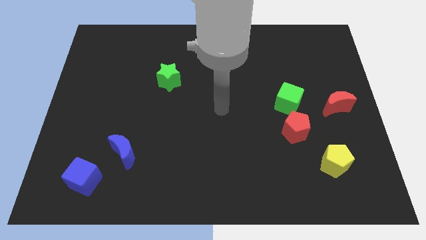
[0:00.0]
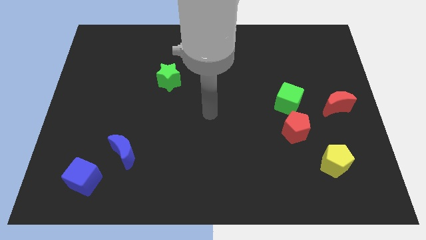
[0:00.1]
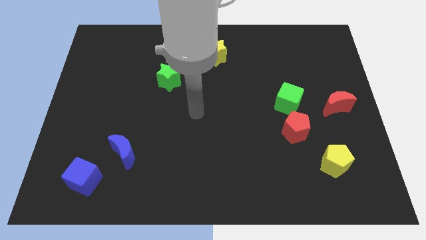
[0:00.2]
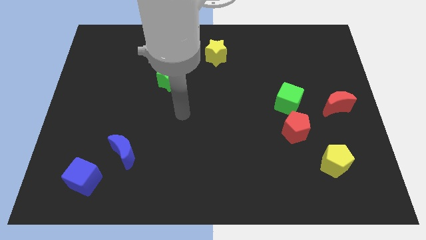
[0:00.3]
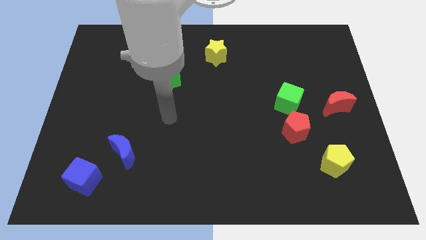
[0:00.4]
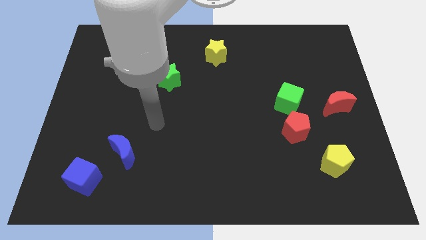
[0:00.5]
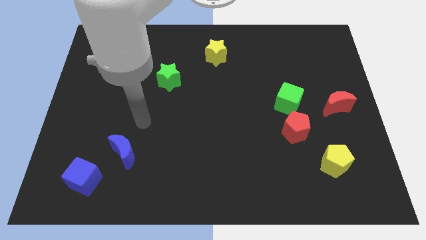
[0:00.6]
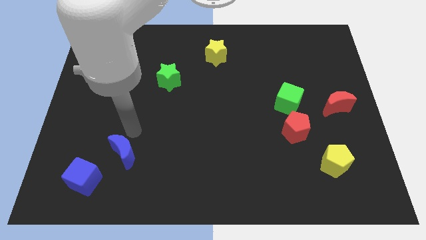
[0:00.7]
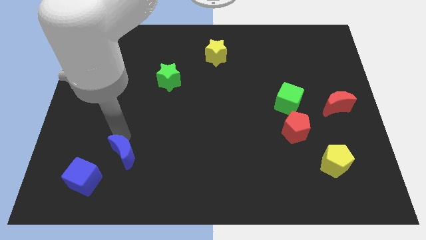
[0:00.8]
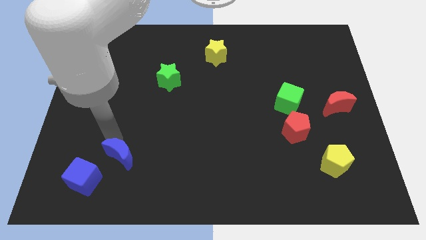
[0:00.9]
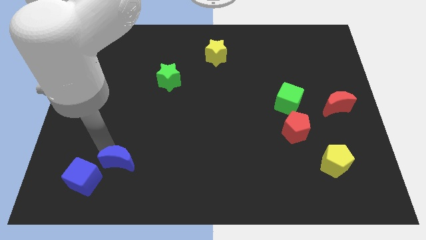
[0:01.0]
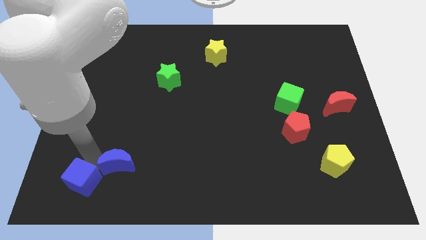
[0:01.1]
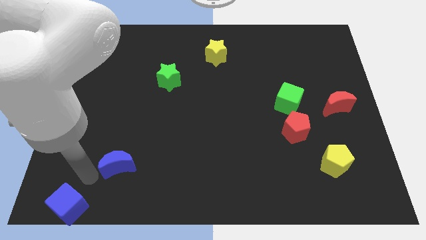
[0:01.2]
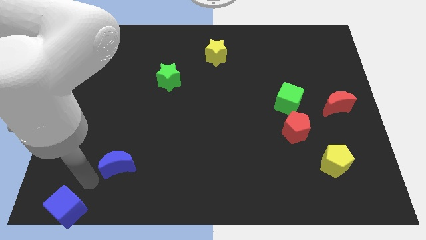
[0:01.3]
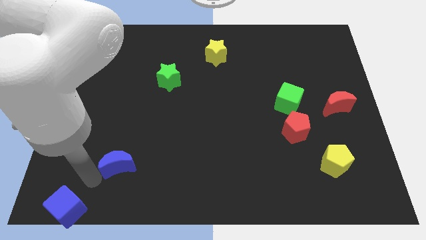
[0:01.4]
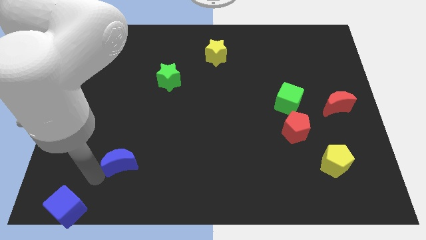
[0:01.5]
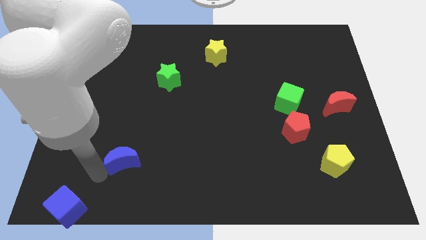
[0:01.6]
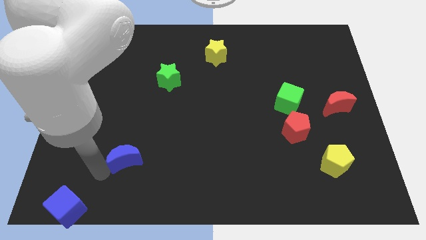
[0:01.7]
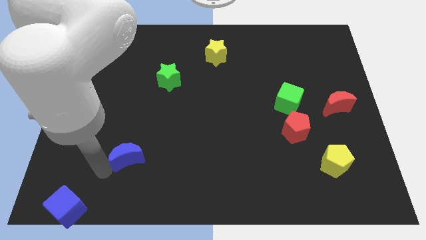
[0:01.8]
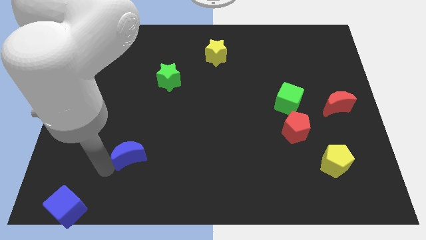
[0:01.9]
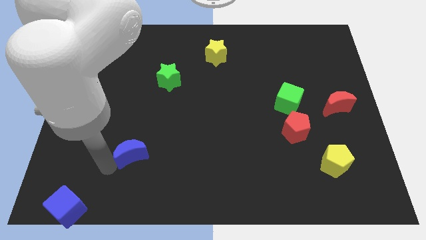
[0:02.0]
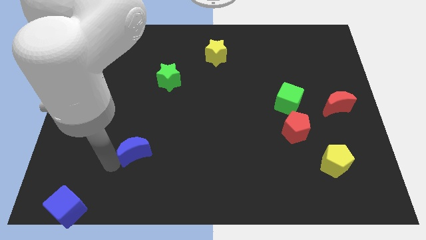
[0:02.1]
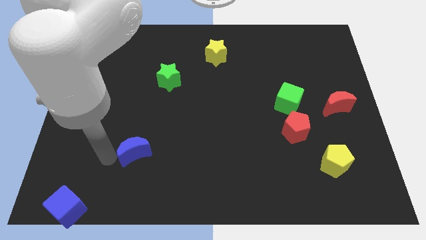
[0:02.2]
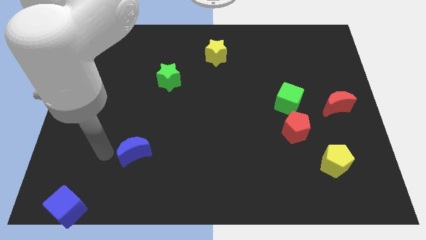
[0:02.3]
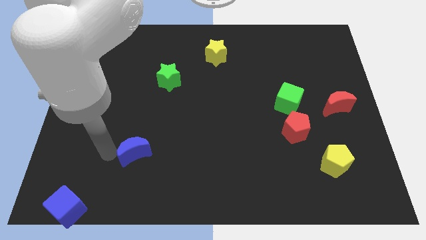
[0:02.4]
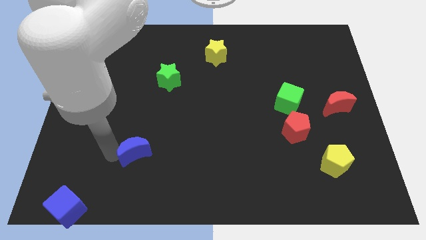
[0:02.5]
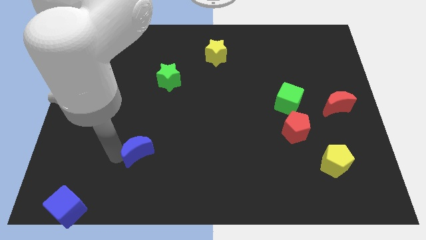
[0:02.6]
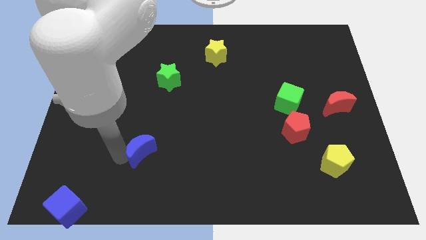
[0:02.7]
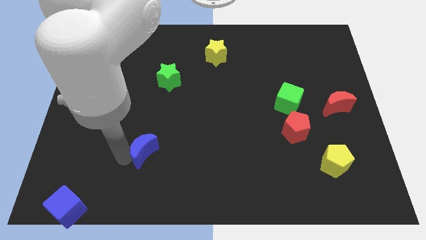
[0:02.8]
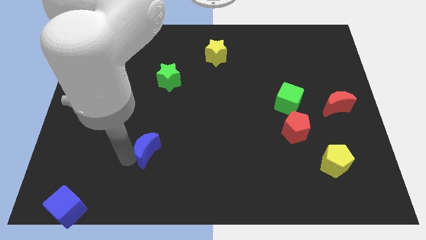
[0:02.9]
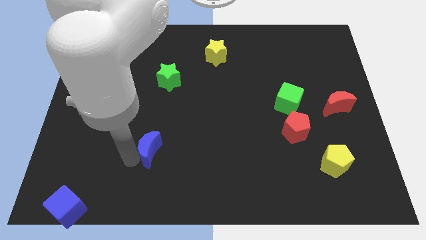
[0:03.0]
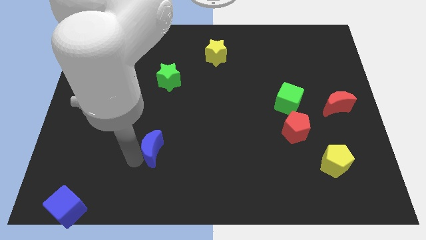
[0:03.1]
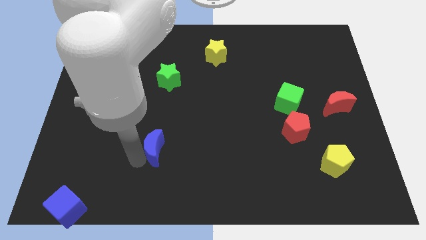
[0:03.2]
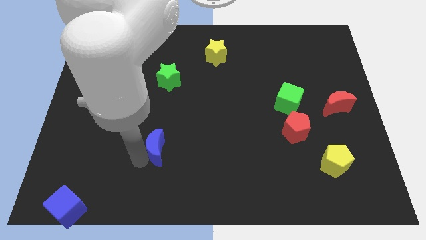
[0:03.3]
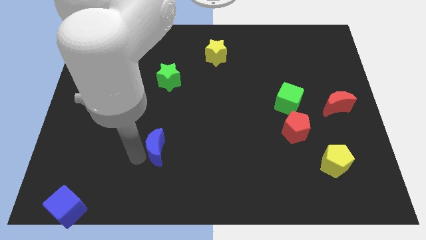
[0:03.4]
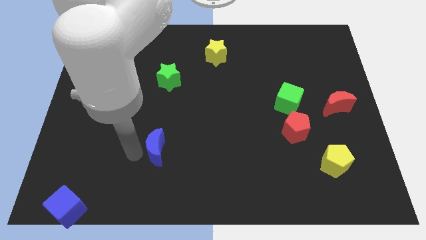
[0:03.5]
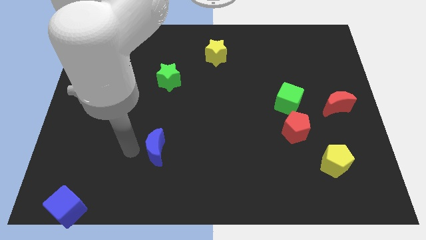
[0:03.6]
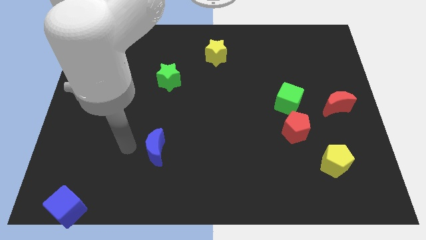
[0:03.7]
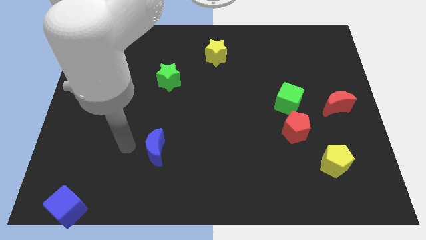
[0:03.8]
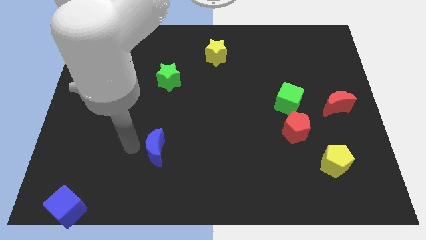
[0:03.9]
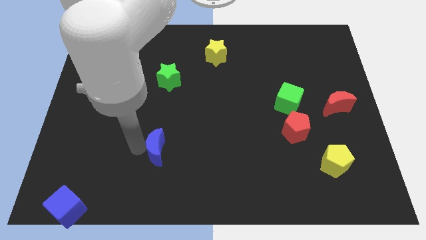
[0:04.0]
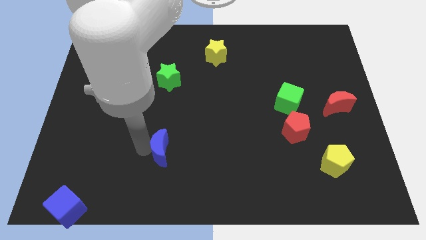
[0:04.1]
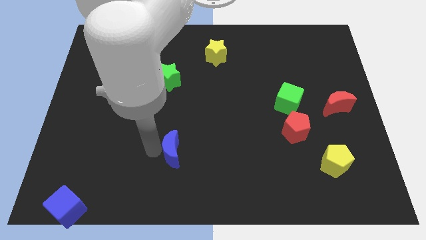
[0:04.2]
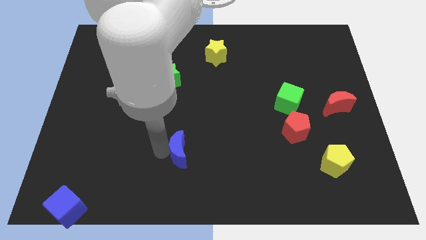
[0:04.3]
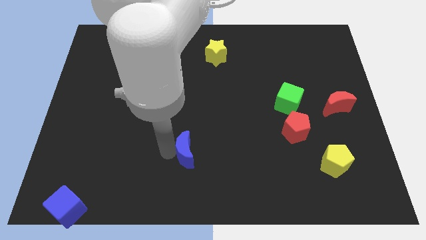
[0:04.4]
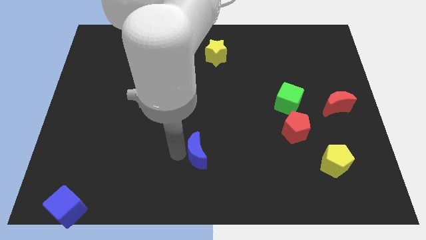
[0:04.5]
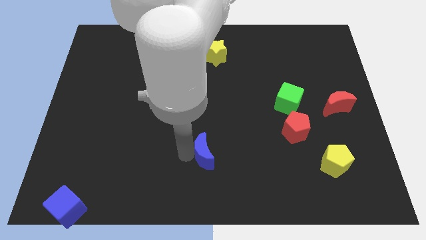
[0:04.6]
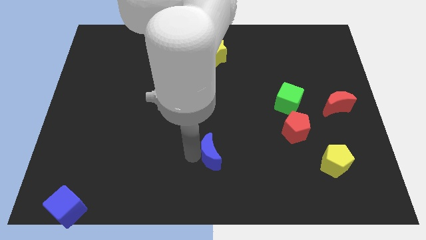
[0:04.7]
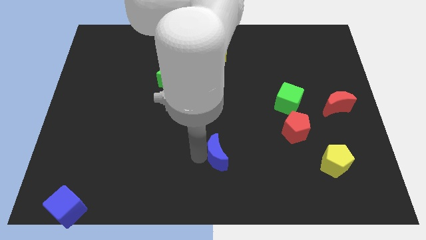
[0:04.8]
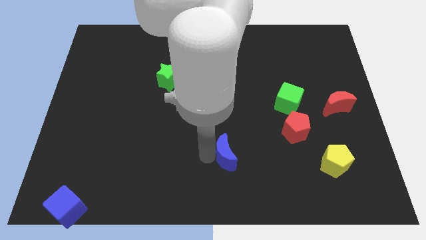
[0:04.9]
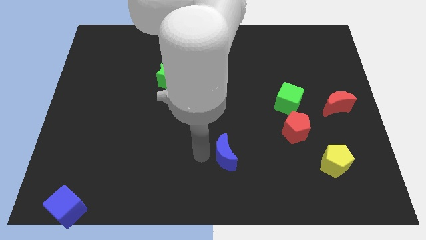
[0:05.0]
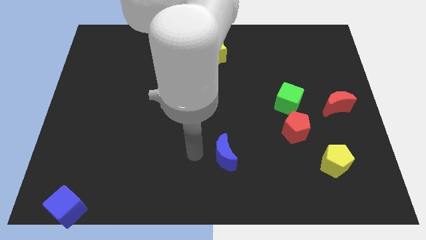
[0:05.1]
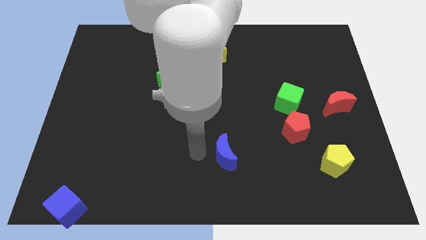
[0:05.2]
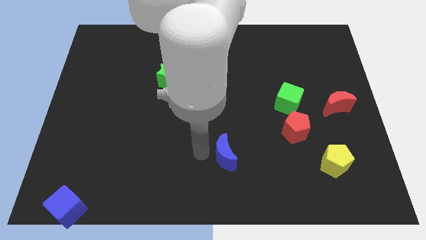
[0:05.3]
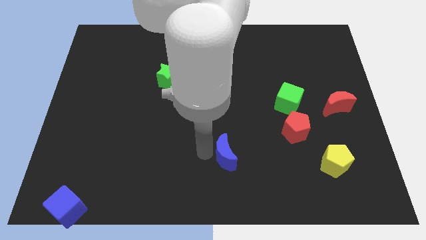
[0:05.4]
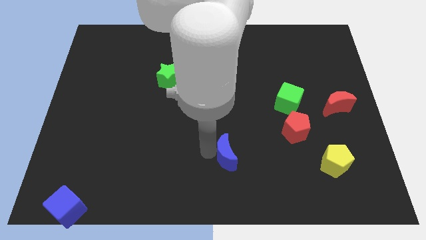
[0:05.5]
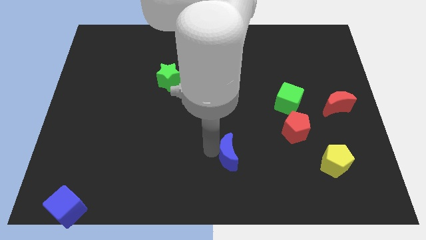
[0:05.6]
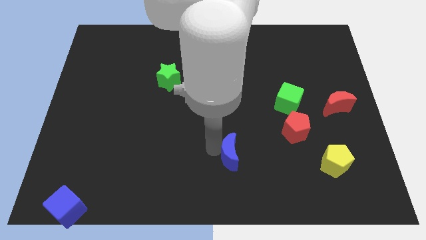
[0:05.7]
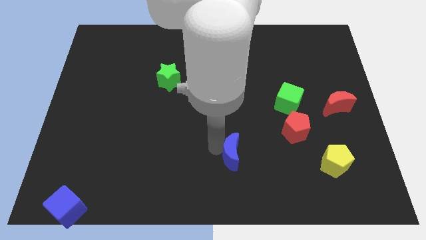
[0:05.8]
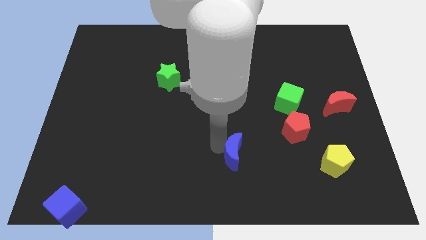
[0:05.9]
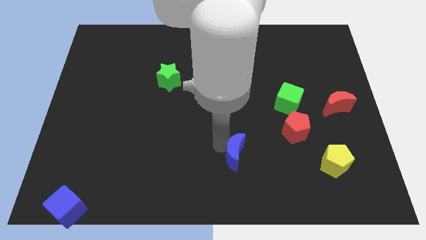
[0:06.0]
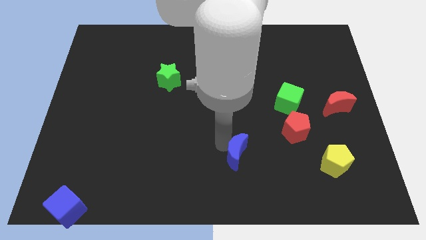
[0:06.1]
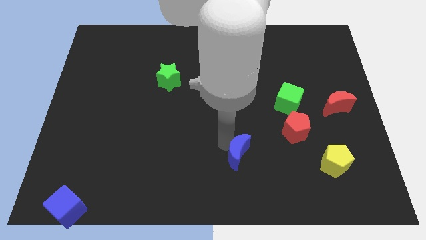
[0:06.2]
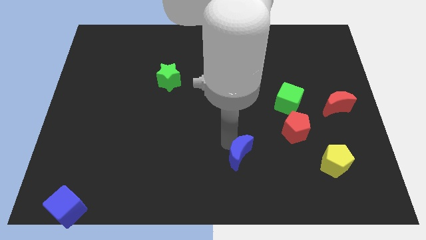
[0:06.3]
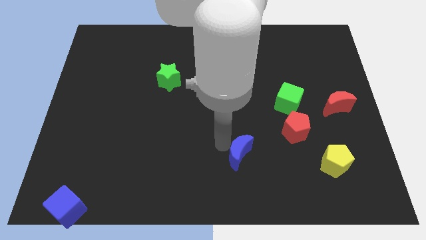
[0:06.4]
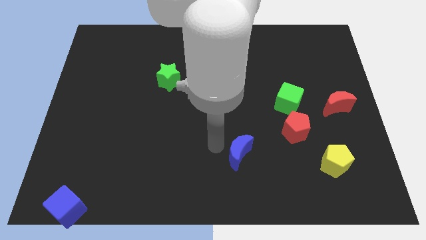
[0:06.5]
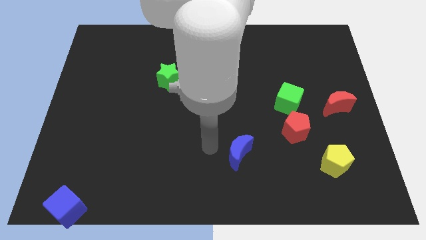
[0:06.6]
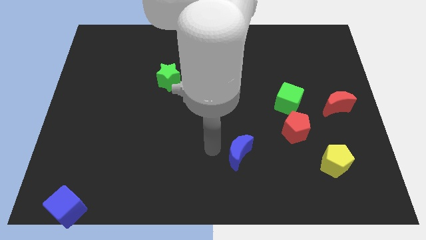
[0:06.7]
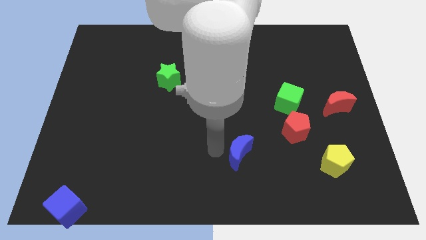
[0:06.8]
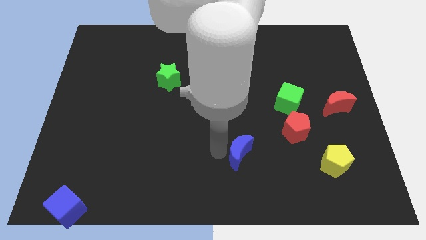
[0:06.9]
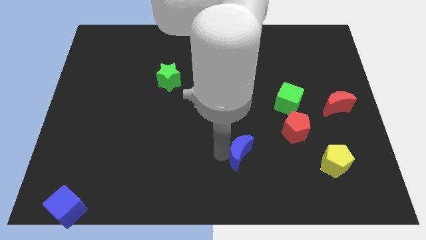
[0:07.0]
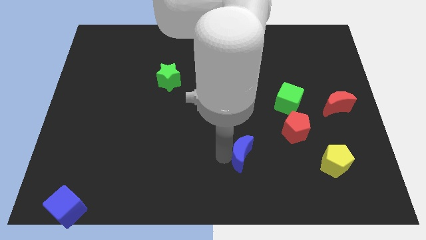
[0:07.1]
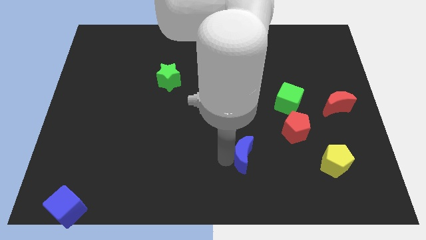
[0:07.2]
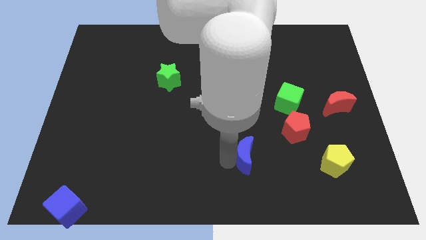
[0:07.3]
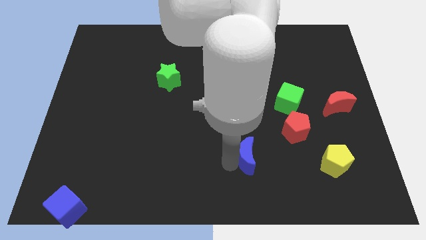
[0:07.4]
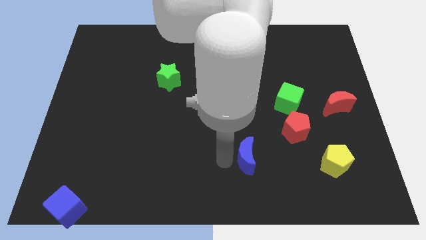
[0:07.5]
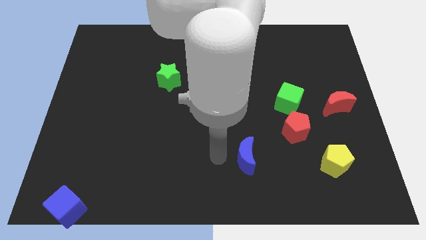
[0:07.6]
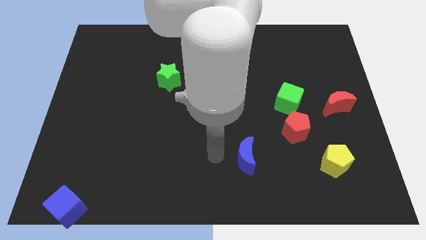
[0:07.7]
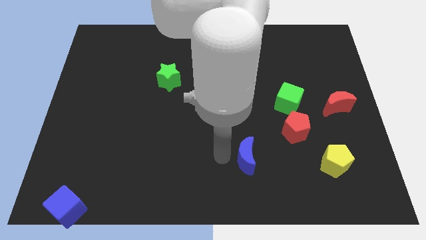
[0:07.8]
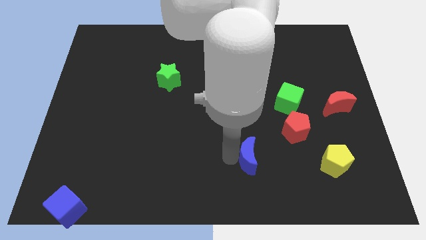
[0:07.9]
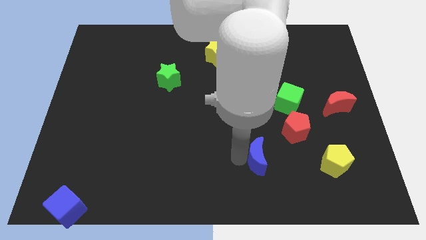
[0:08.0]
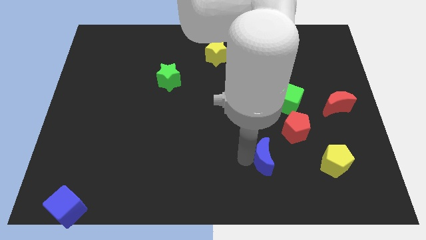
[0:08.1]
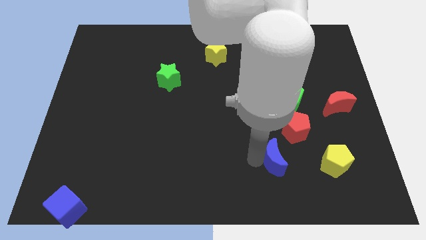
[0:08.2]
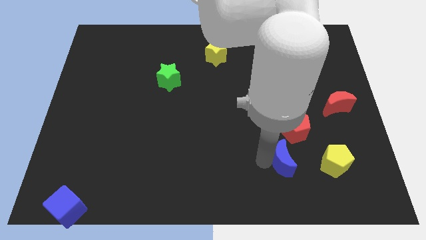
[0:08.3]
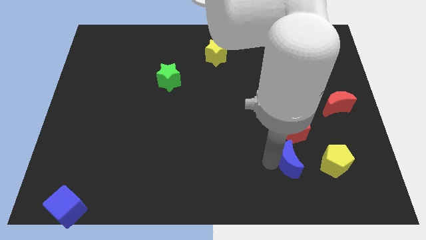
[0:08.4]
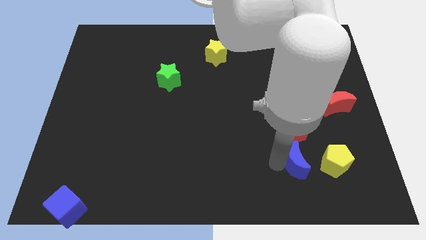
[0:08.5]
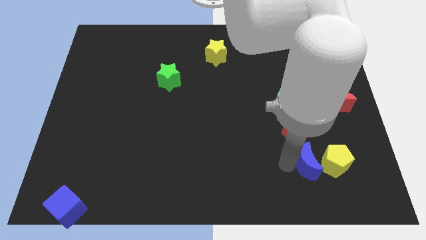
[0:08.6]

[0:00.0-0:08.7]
move the blue moon to the yellow pentagon
